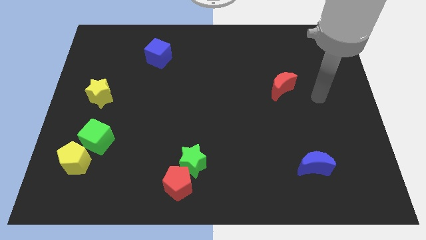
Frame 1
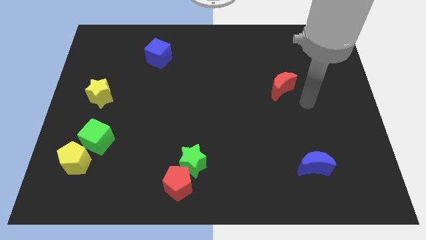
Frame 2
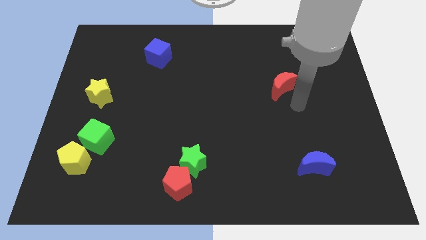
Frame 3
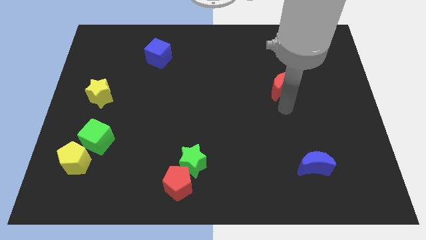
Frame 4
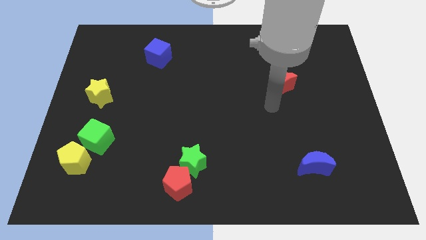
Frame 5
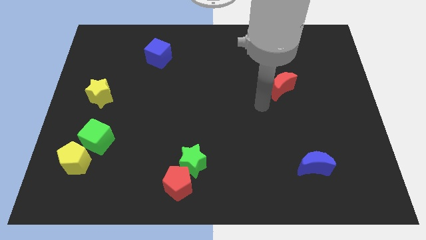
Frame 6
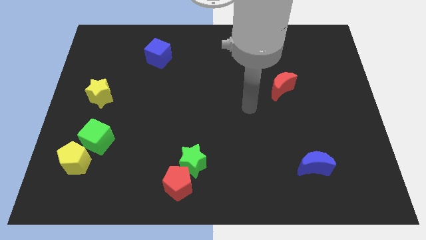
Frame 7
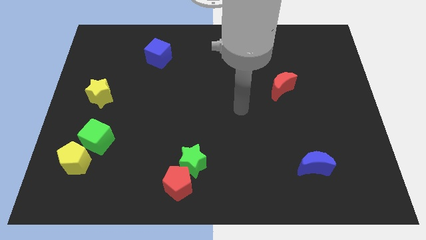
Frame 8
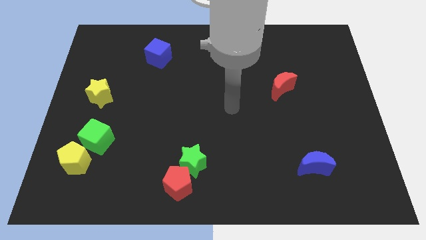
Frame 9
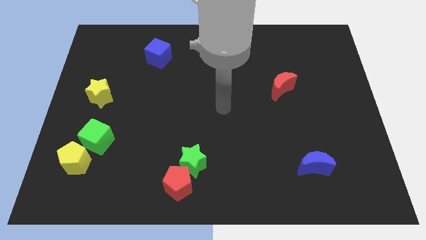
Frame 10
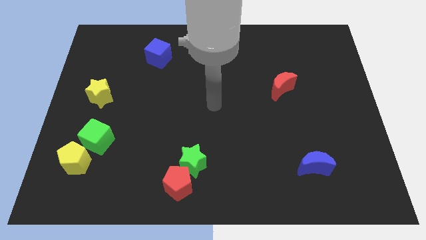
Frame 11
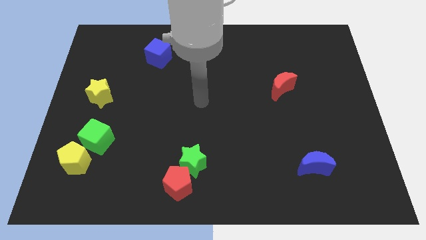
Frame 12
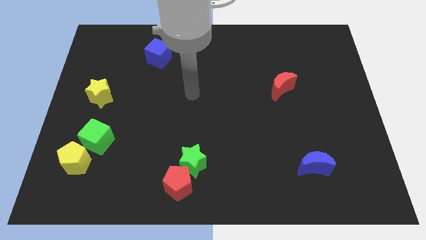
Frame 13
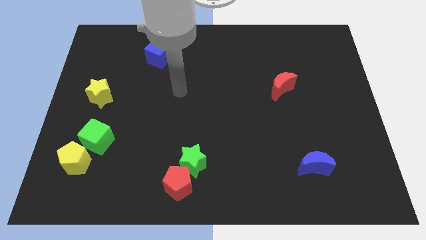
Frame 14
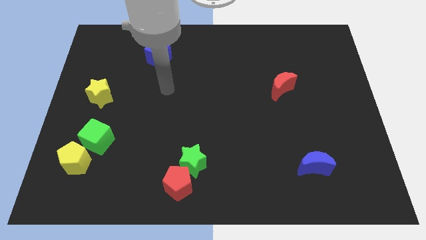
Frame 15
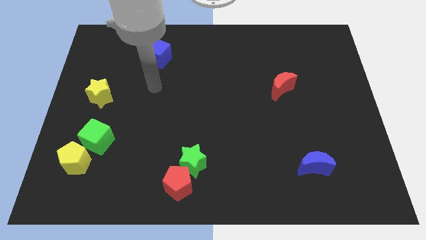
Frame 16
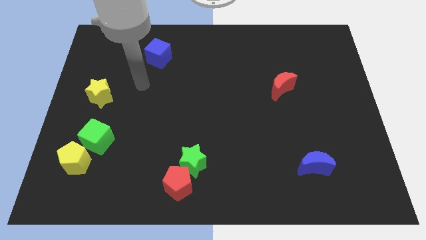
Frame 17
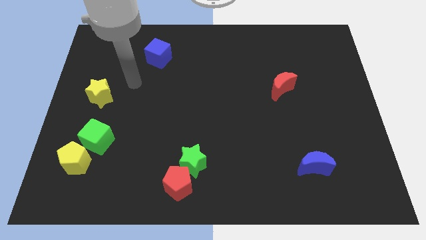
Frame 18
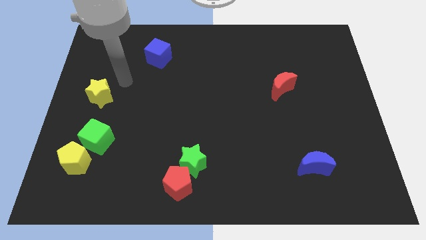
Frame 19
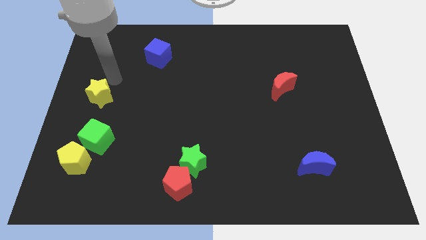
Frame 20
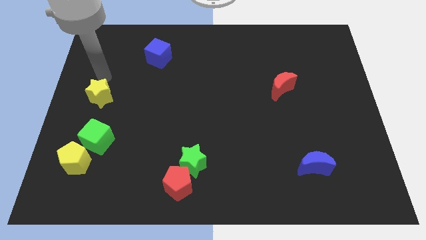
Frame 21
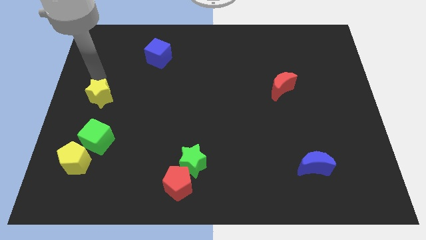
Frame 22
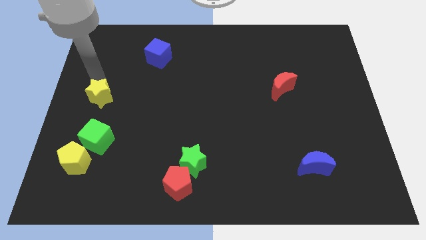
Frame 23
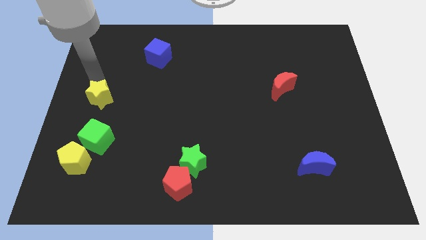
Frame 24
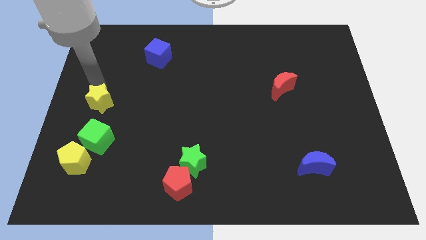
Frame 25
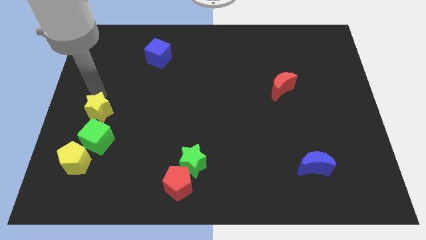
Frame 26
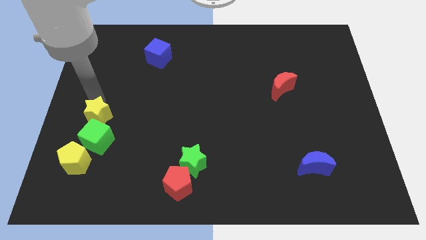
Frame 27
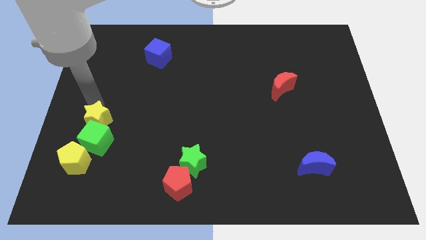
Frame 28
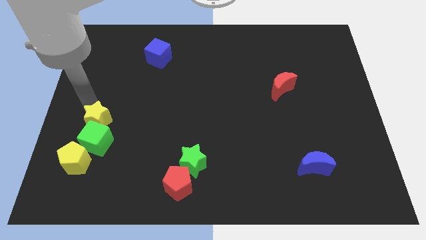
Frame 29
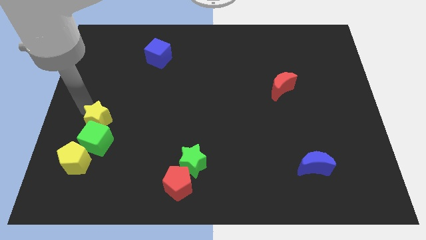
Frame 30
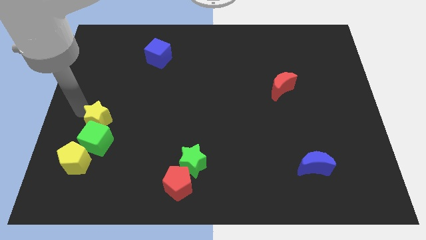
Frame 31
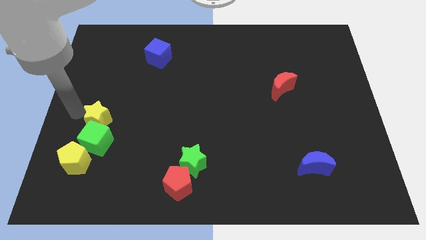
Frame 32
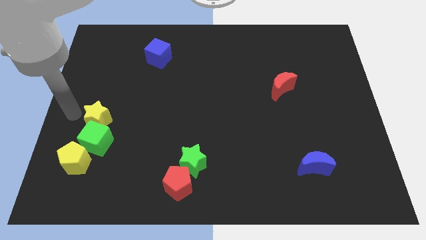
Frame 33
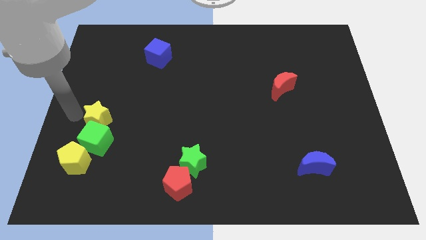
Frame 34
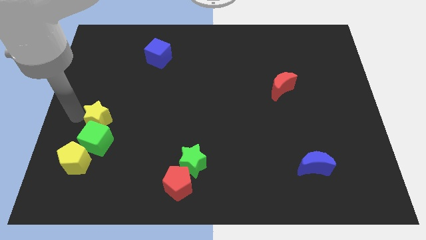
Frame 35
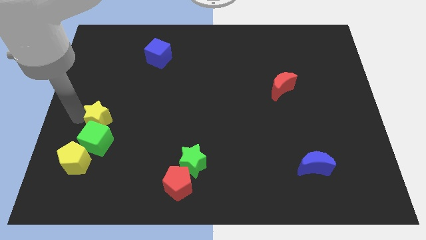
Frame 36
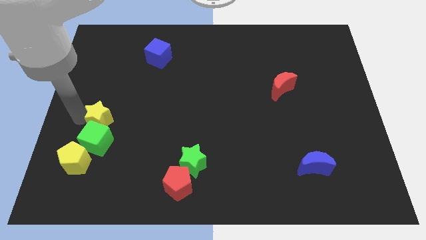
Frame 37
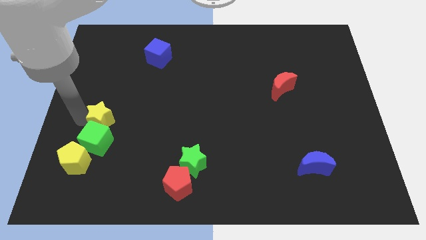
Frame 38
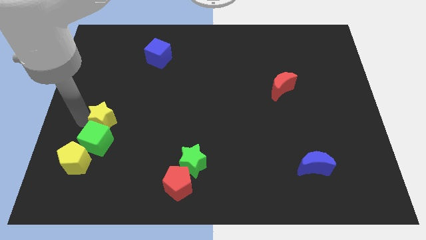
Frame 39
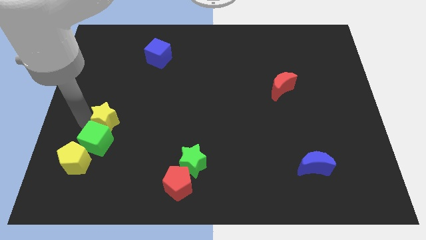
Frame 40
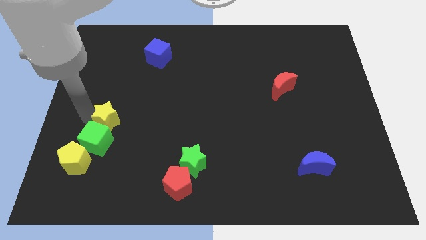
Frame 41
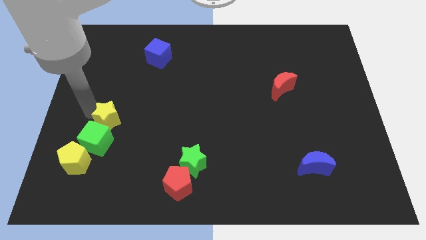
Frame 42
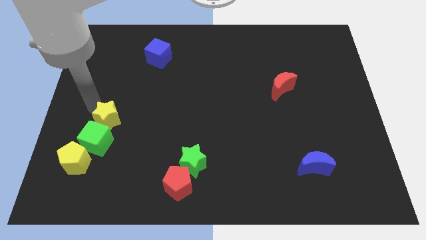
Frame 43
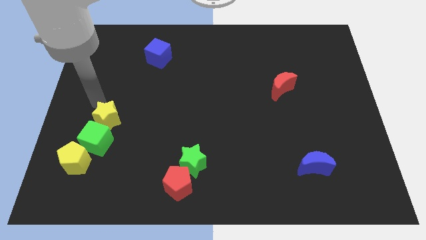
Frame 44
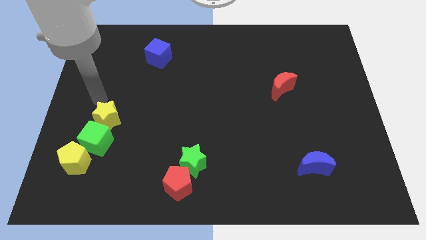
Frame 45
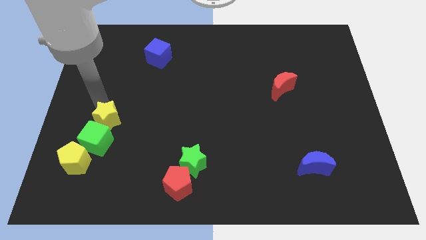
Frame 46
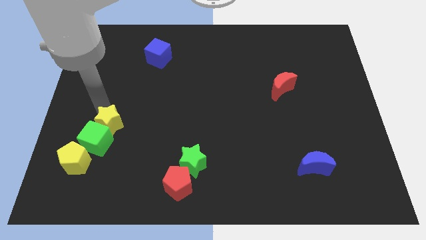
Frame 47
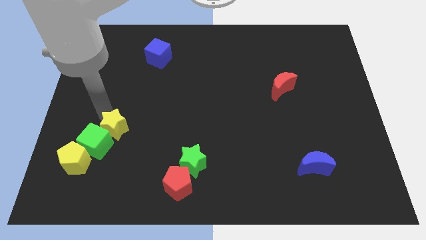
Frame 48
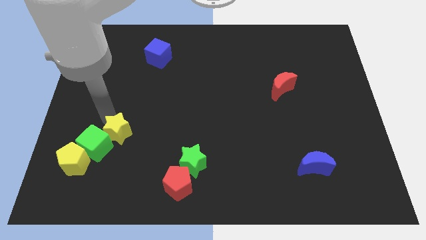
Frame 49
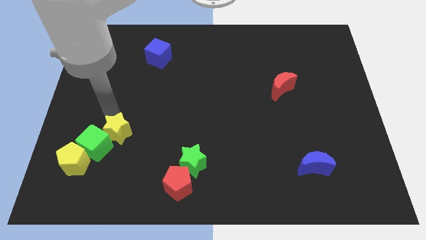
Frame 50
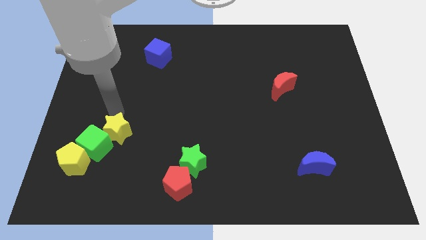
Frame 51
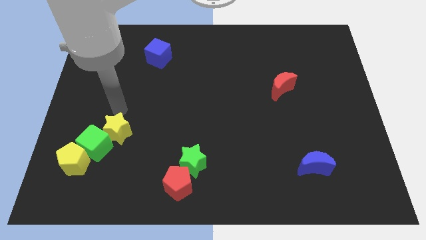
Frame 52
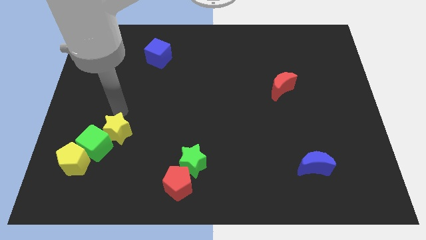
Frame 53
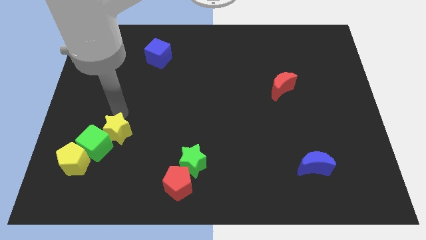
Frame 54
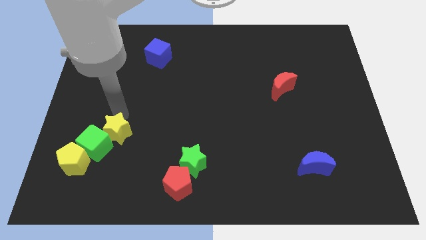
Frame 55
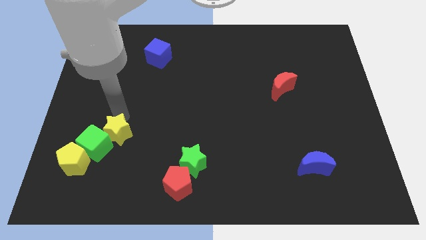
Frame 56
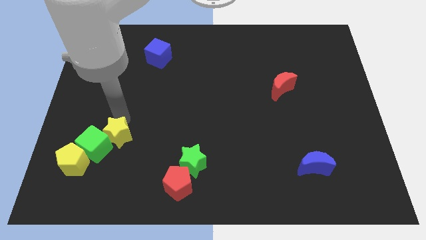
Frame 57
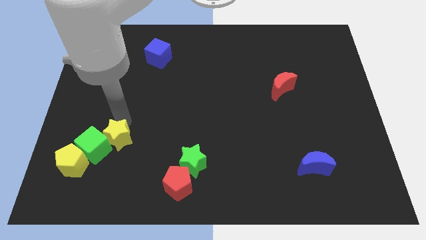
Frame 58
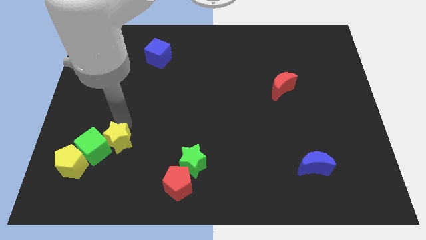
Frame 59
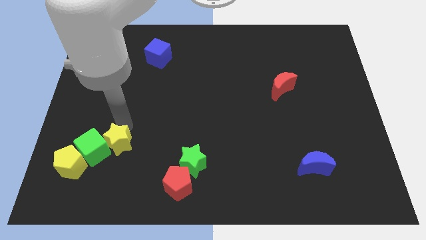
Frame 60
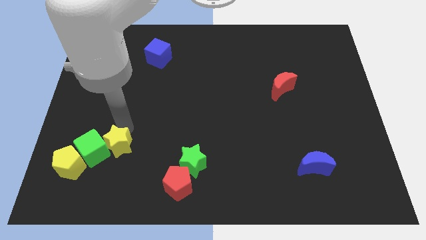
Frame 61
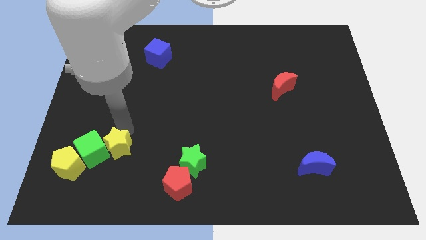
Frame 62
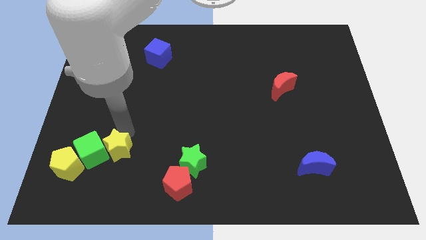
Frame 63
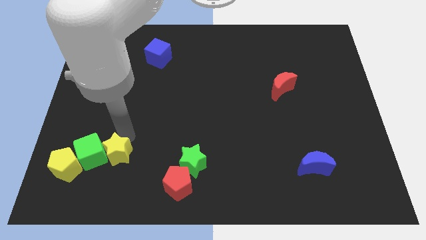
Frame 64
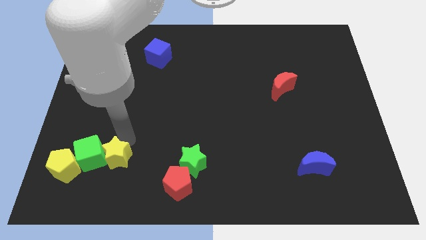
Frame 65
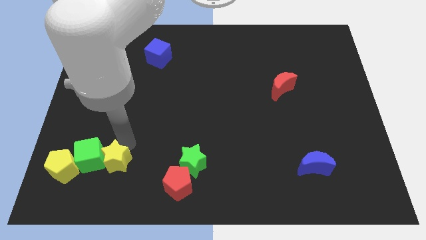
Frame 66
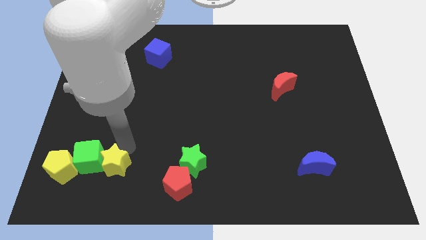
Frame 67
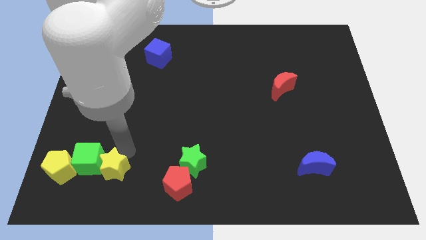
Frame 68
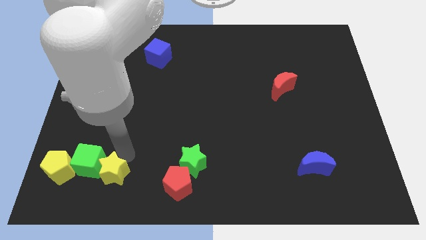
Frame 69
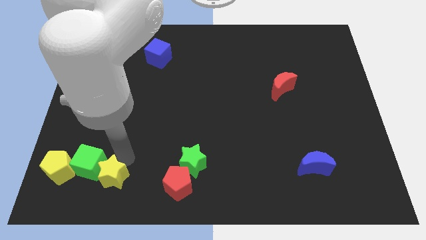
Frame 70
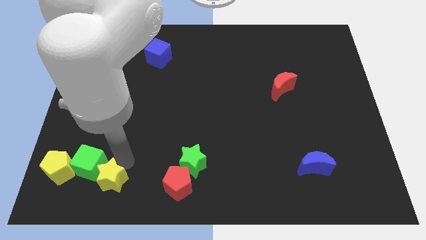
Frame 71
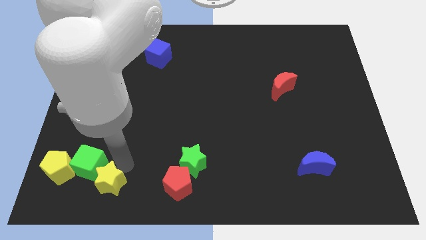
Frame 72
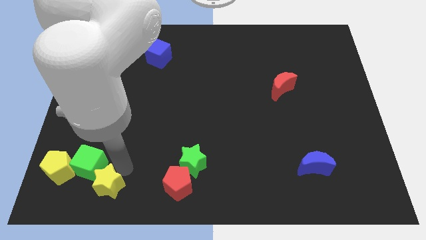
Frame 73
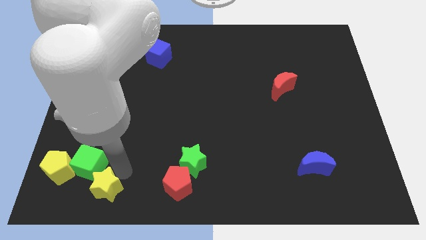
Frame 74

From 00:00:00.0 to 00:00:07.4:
slide the yellow star to the bottom right of the yellow pentagon

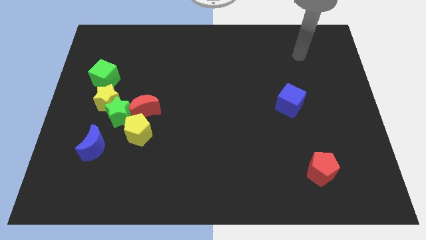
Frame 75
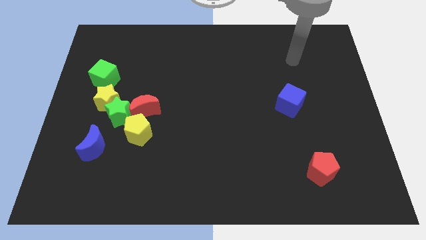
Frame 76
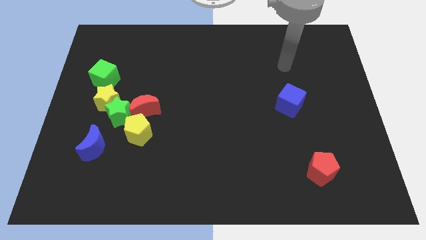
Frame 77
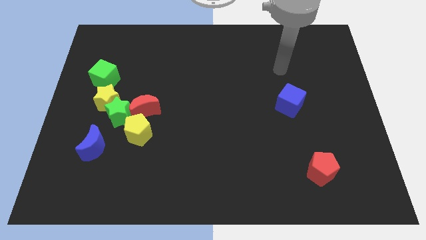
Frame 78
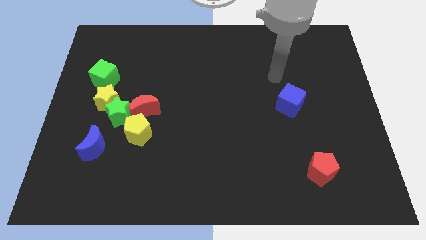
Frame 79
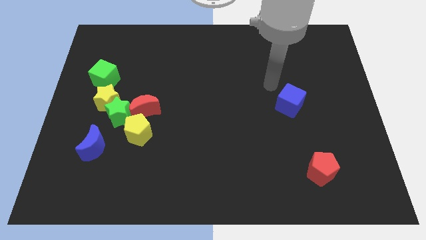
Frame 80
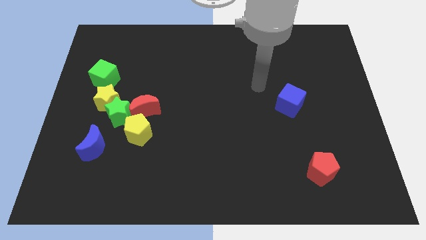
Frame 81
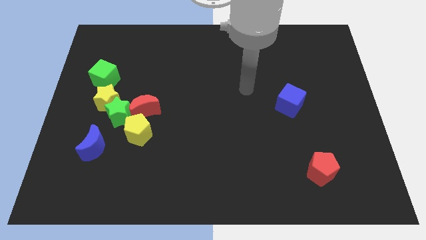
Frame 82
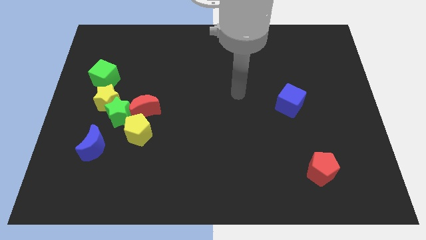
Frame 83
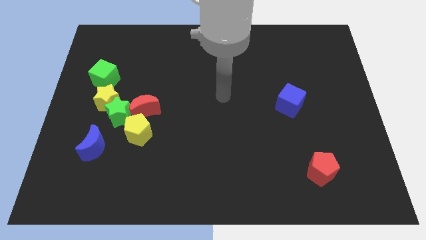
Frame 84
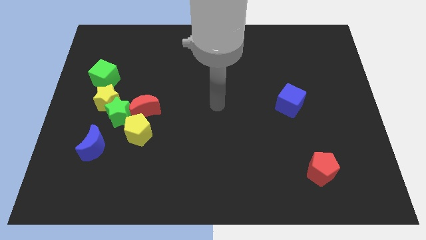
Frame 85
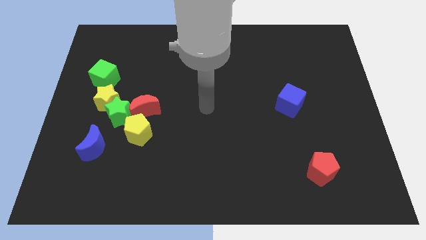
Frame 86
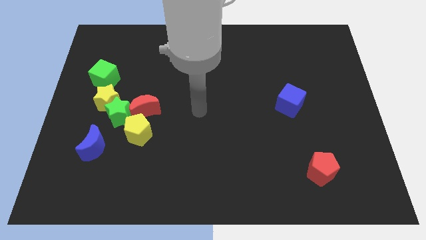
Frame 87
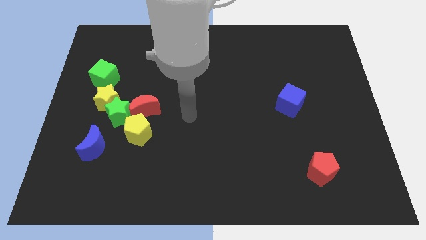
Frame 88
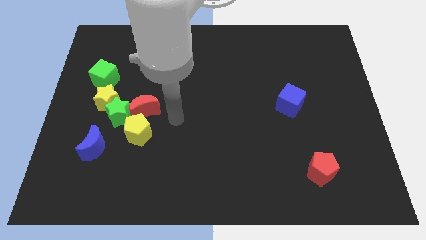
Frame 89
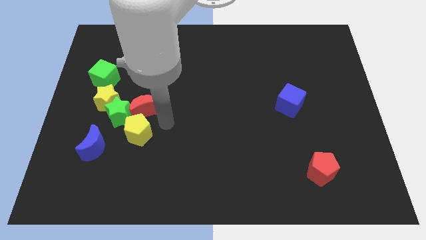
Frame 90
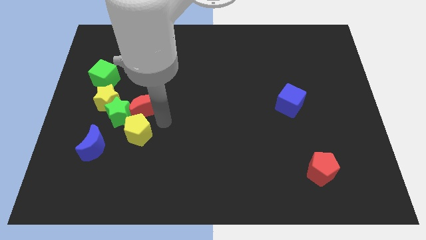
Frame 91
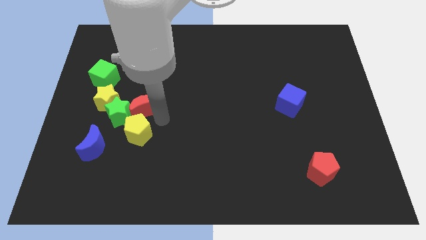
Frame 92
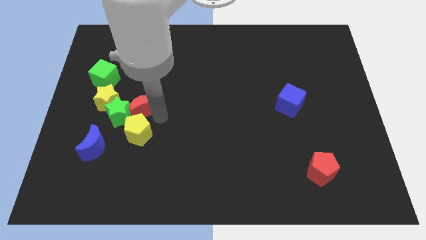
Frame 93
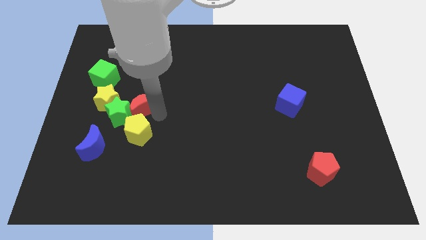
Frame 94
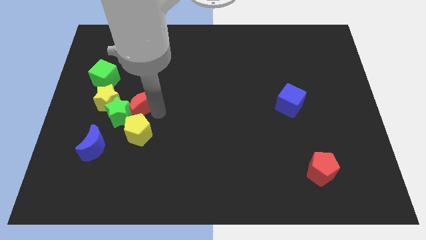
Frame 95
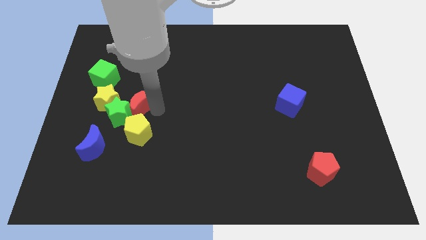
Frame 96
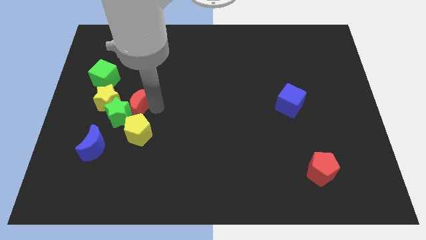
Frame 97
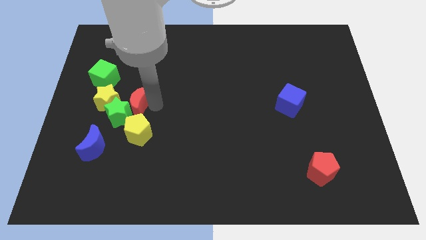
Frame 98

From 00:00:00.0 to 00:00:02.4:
move the red moon diagonally down and to the right of the green cube
